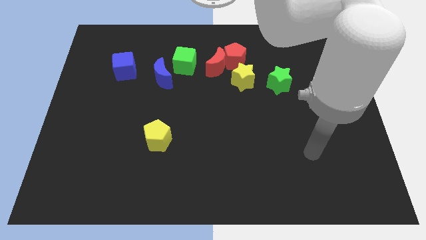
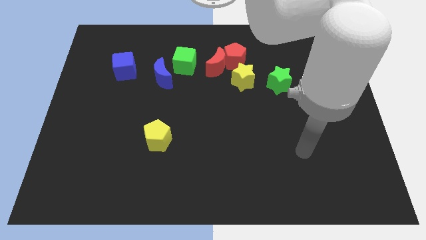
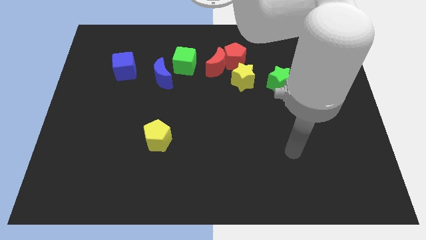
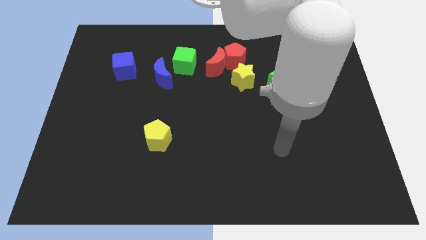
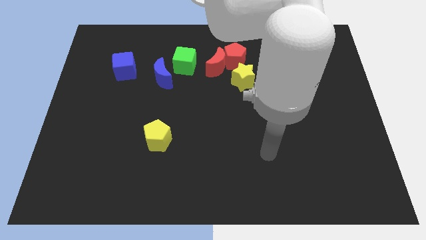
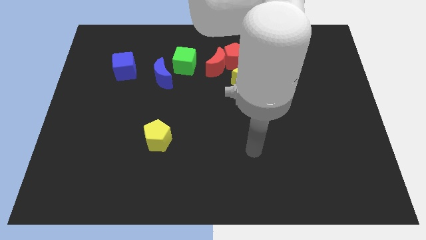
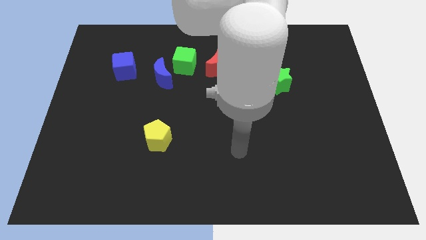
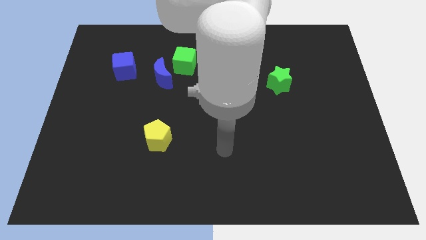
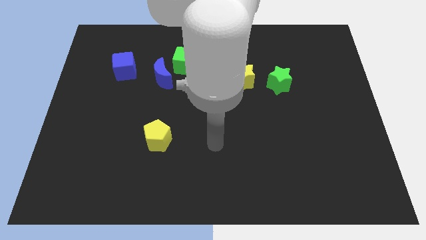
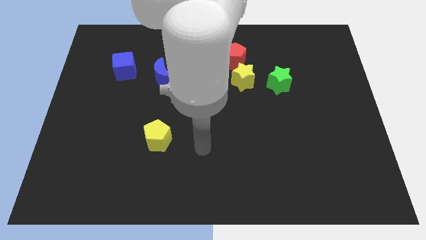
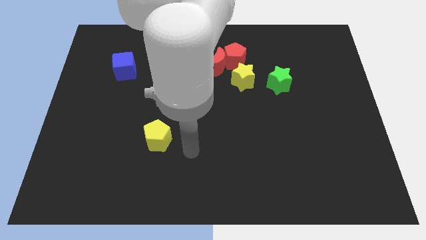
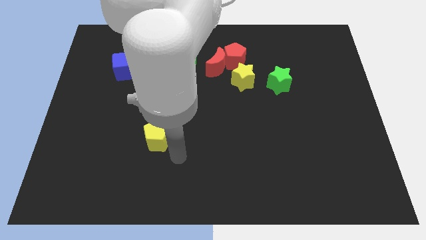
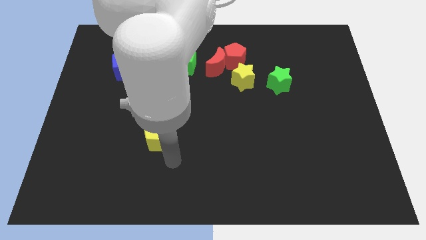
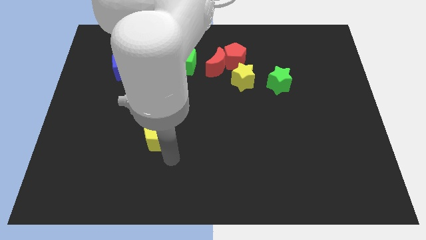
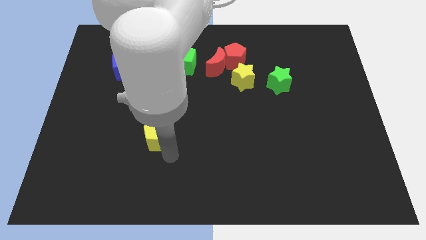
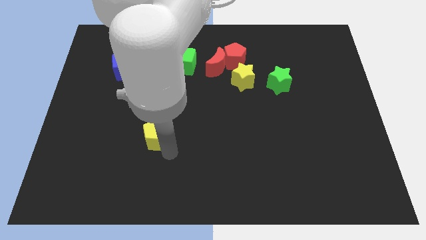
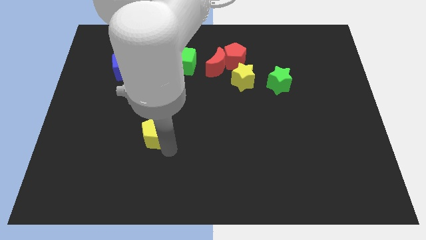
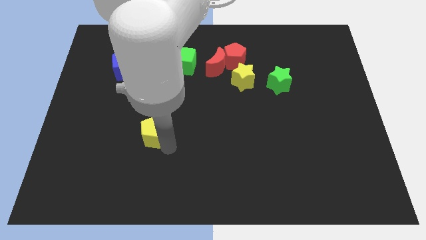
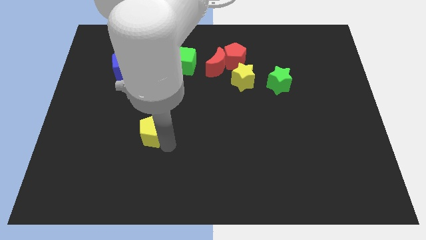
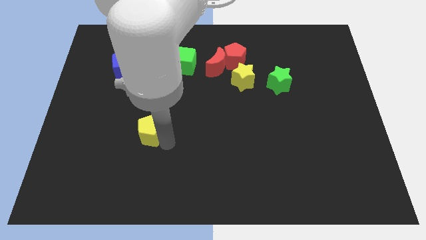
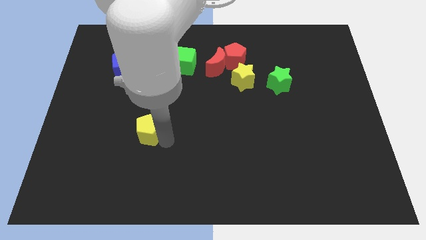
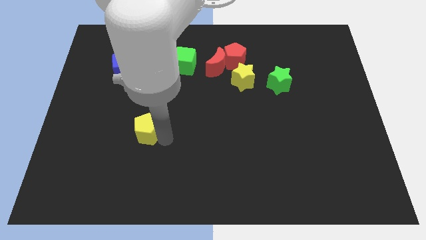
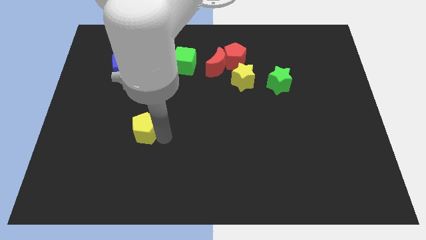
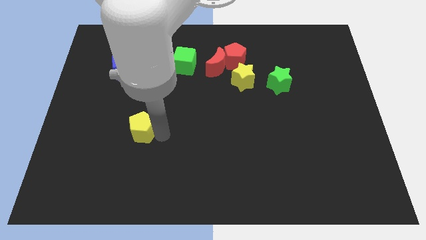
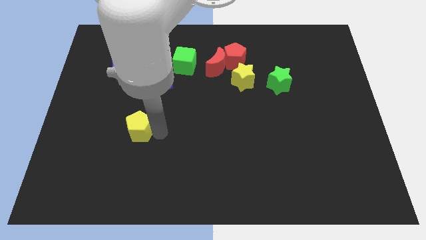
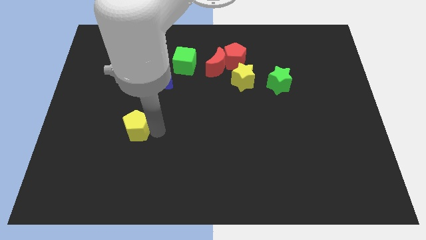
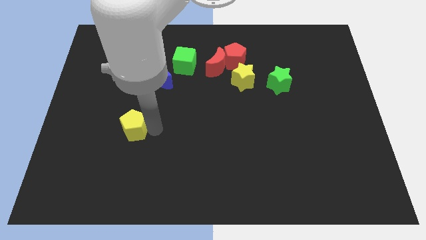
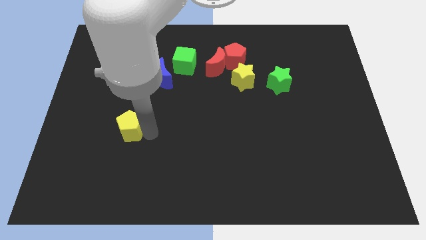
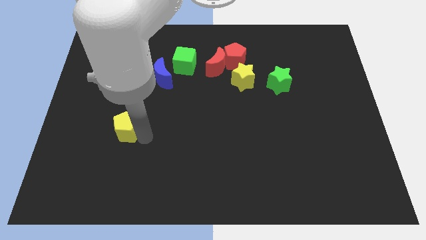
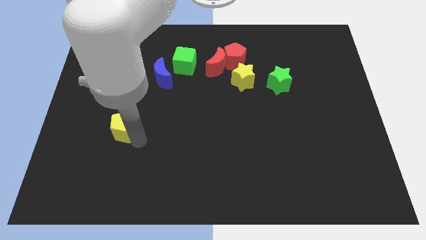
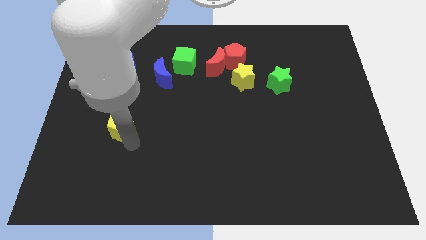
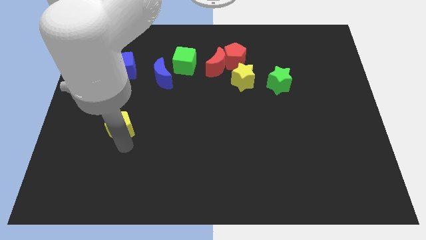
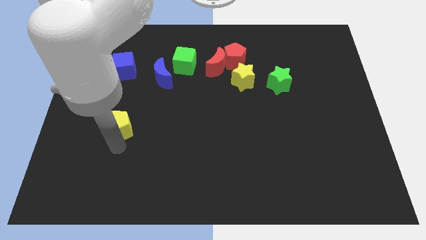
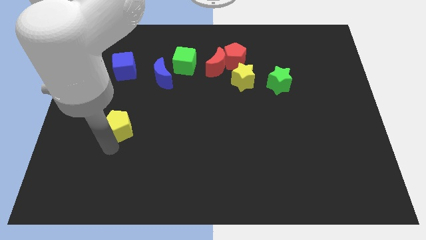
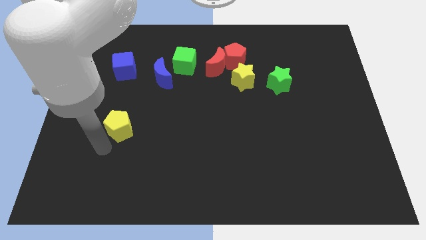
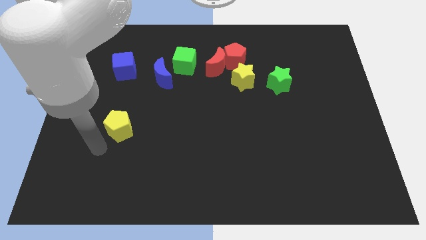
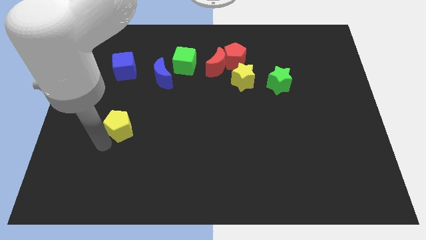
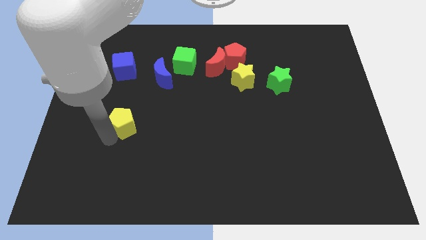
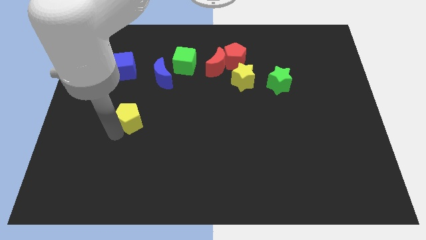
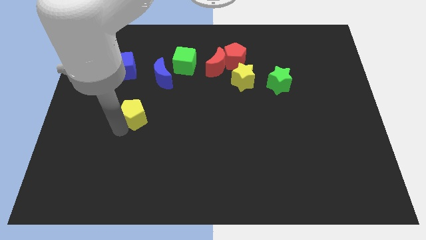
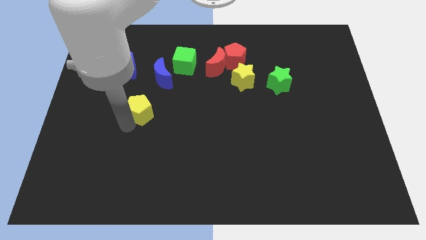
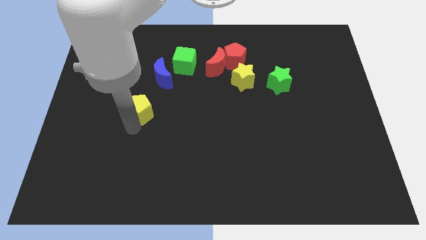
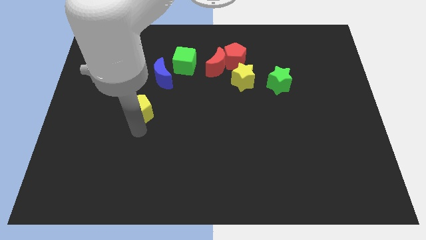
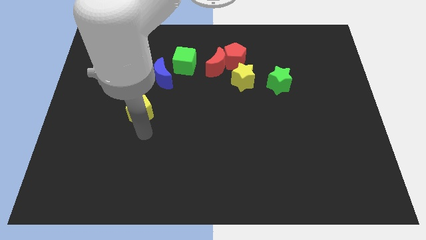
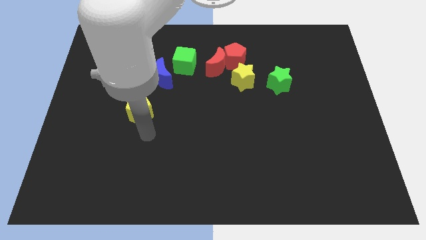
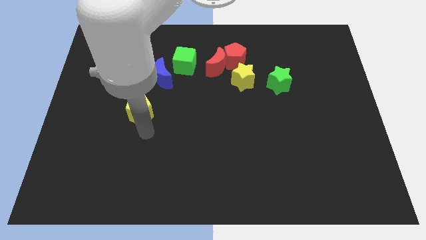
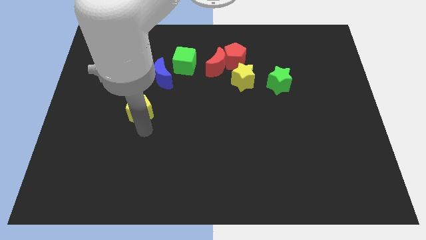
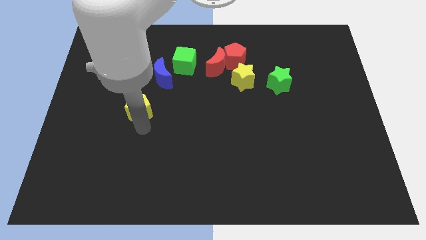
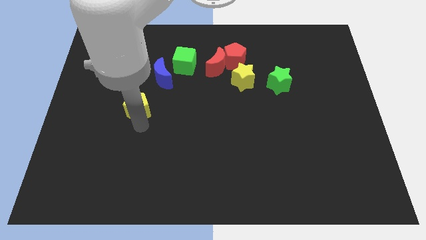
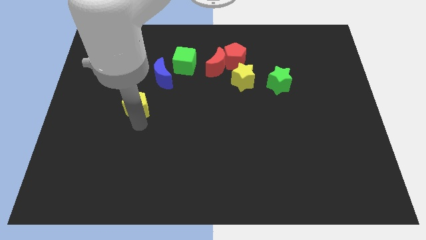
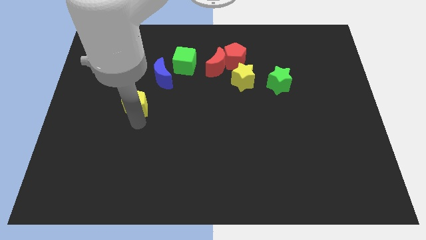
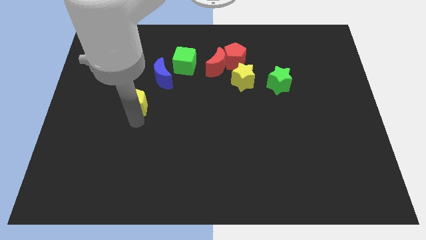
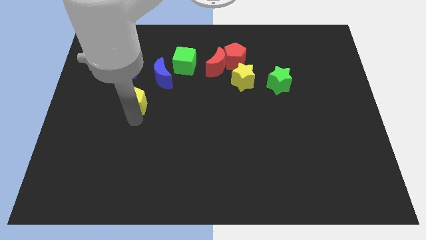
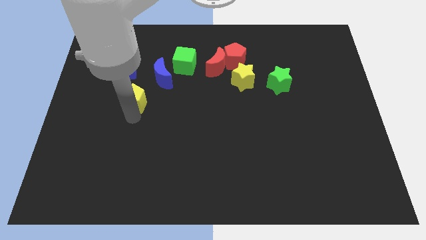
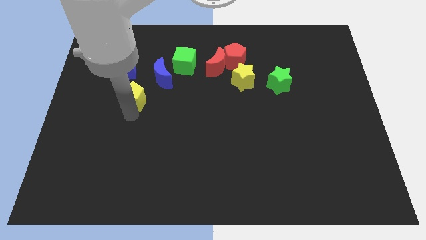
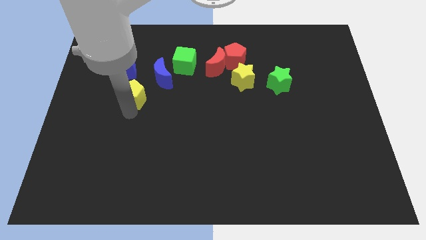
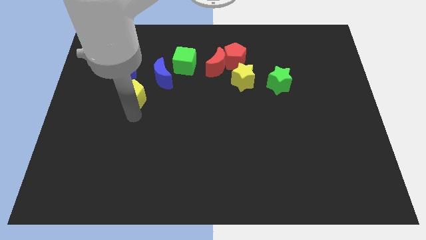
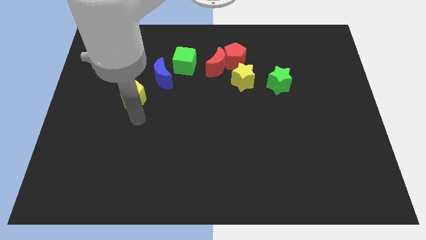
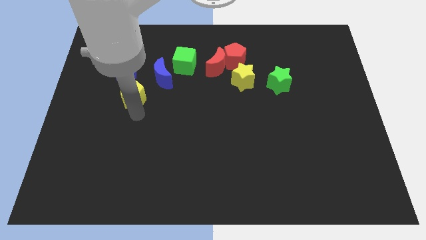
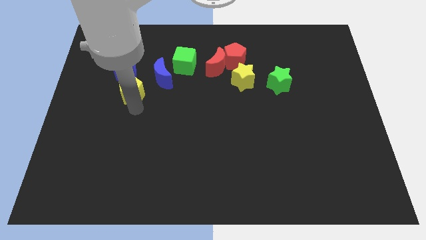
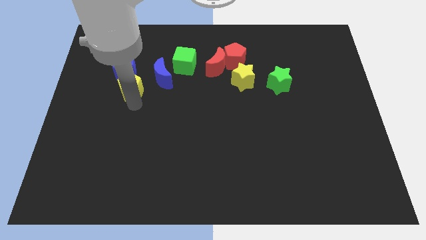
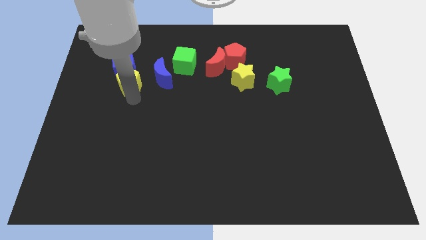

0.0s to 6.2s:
slide the yellow pentagon next to the blue cube

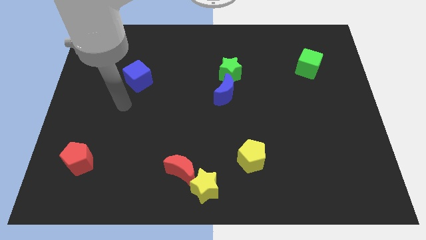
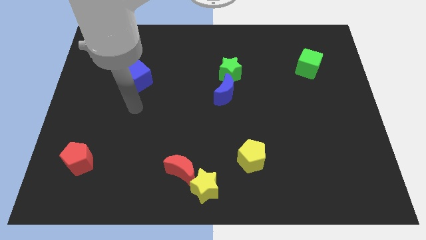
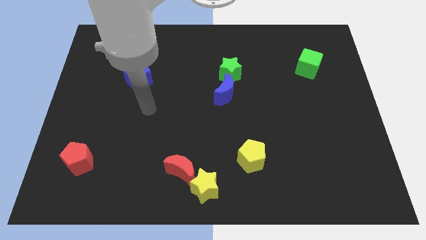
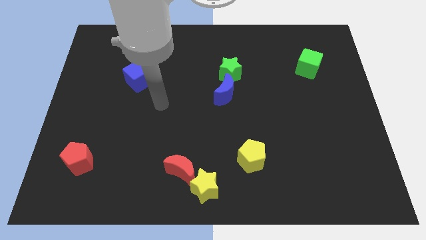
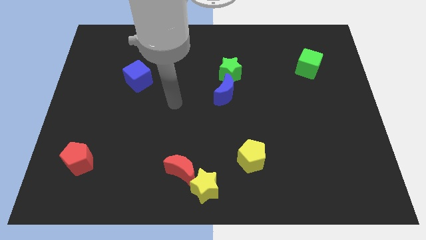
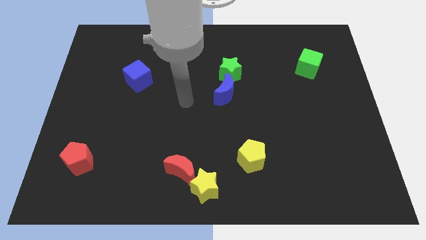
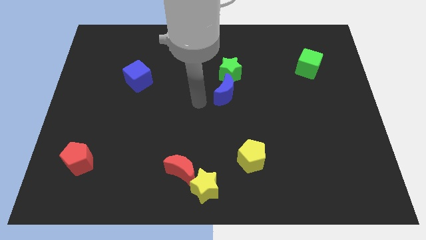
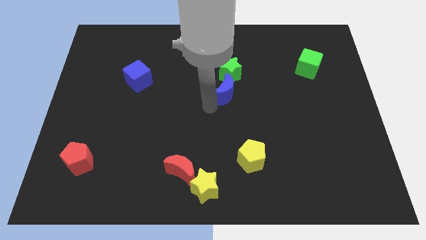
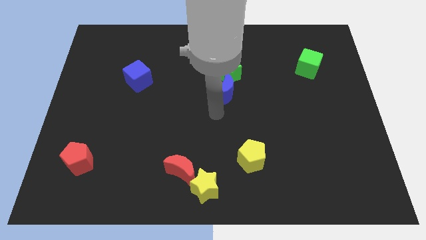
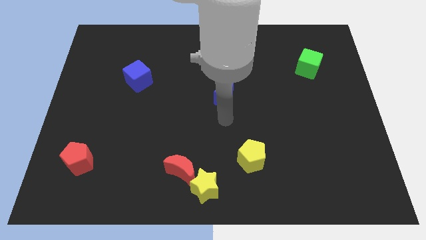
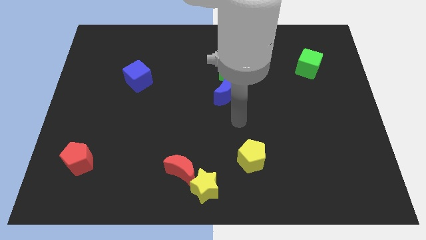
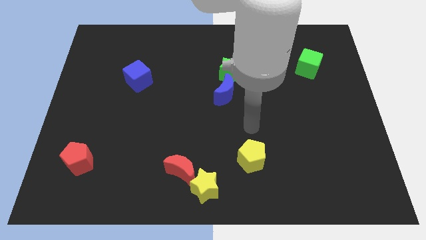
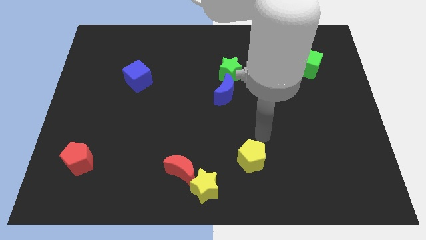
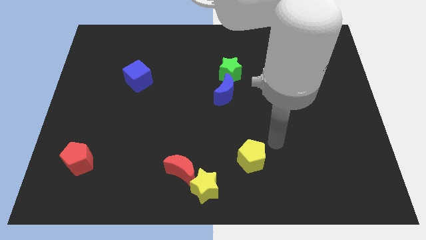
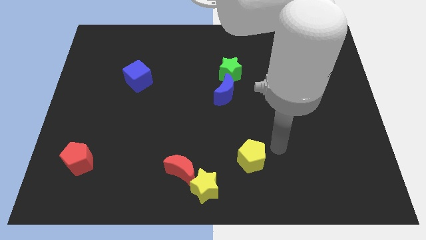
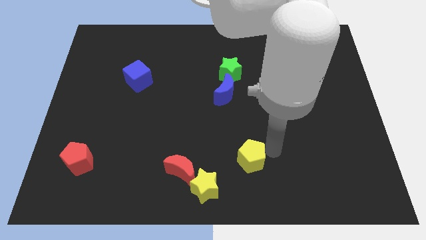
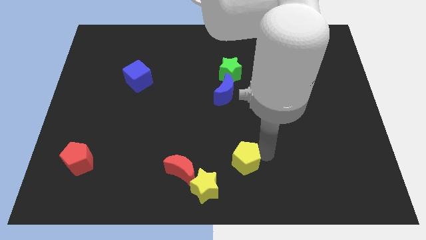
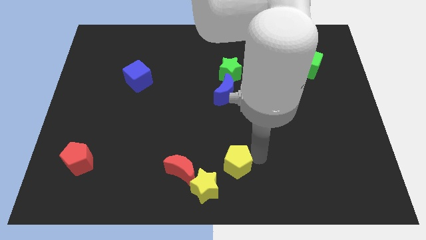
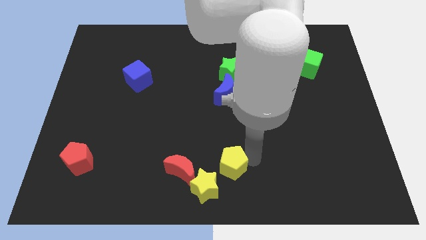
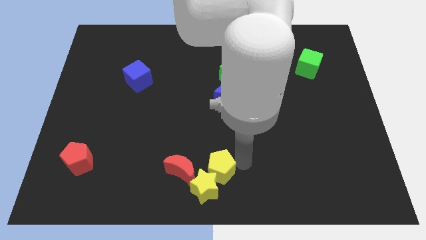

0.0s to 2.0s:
move the yellow pentagon to the yellow star

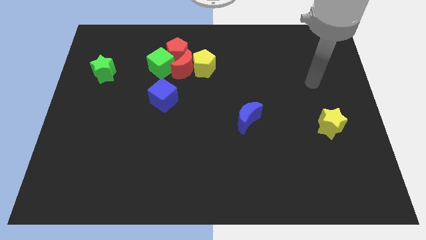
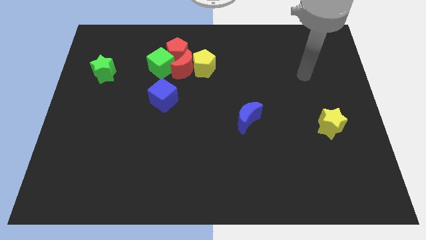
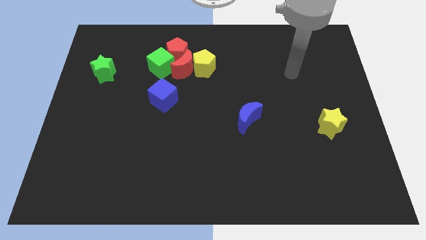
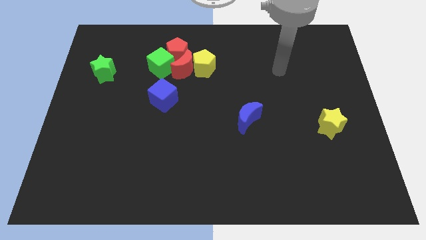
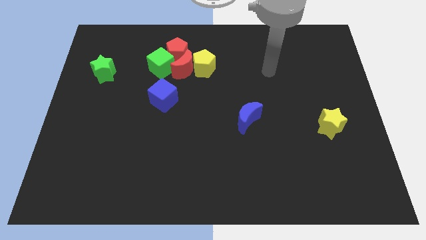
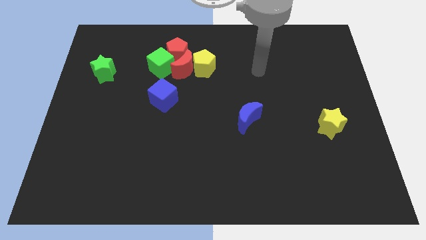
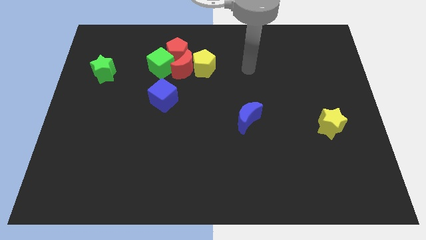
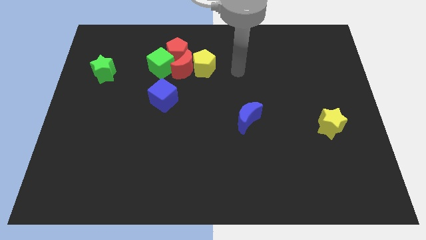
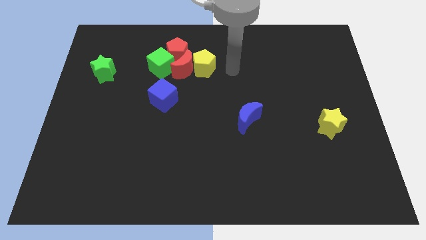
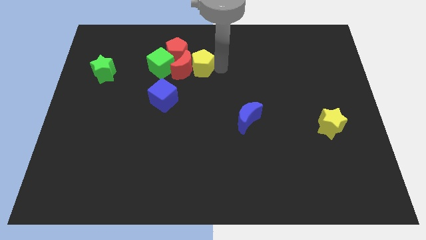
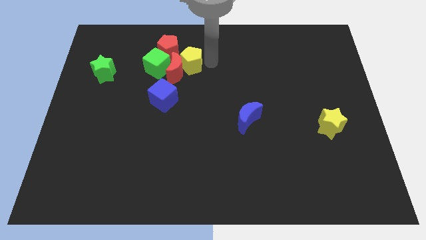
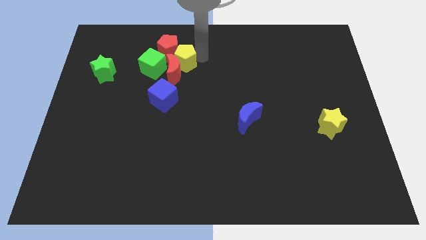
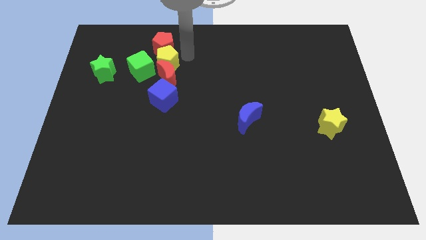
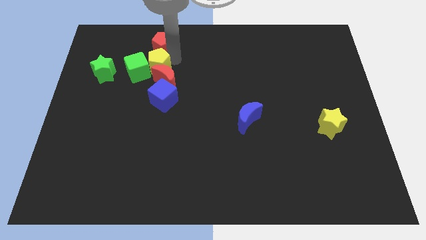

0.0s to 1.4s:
slide the red moon towards the blue cube
